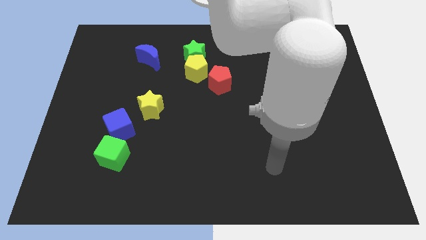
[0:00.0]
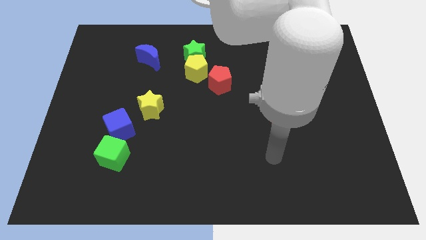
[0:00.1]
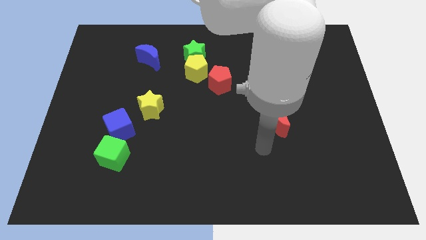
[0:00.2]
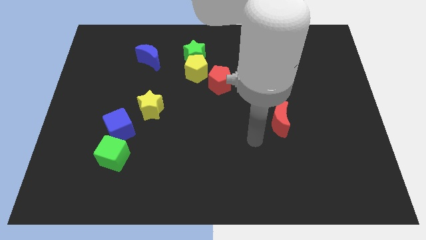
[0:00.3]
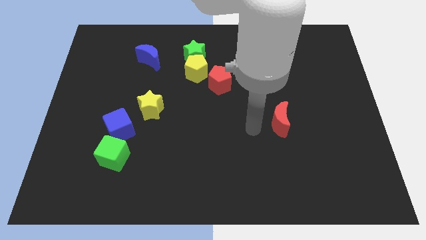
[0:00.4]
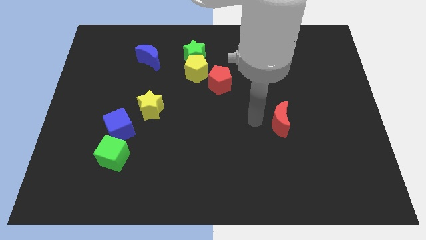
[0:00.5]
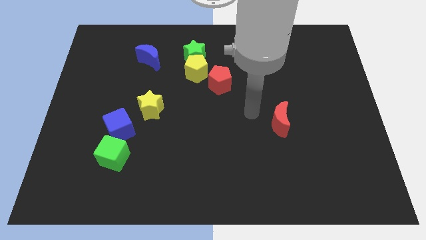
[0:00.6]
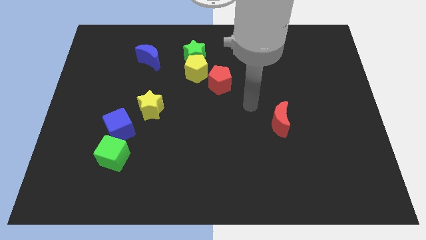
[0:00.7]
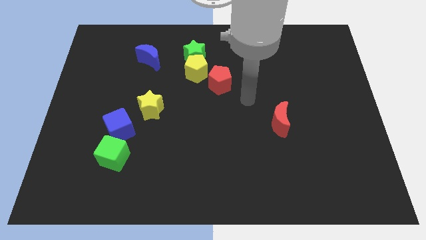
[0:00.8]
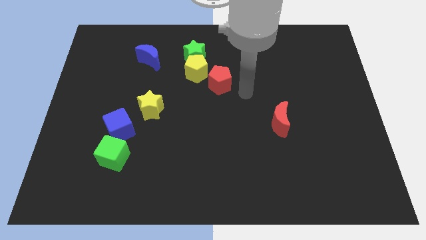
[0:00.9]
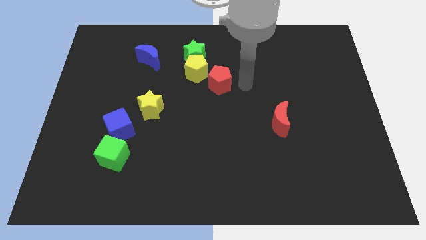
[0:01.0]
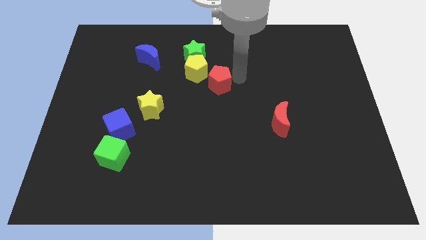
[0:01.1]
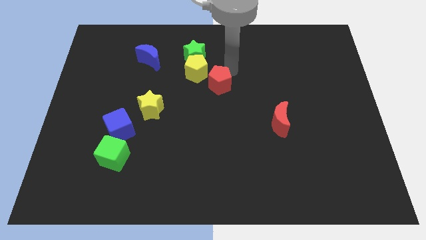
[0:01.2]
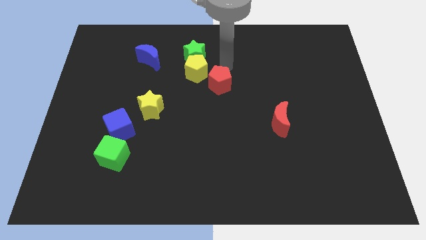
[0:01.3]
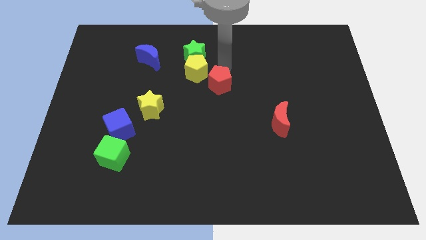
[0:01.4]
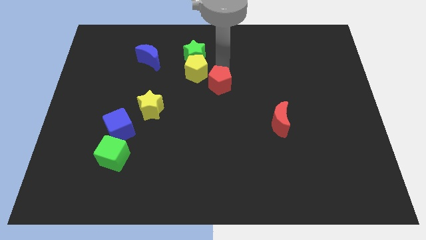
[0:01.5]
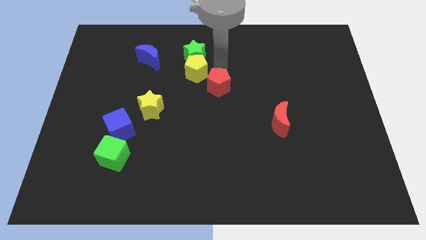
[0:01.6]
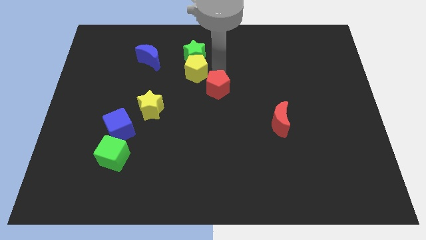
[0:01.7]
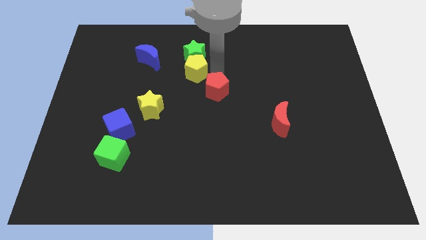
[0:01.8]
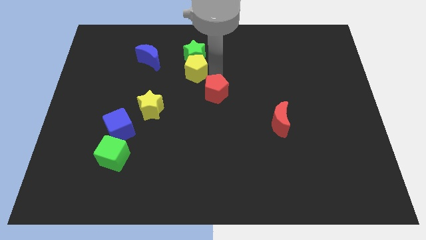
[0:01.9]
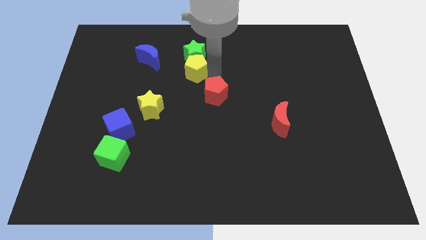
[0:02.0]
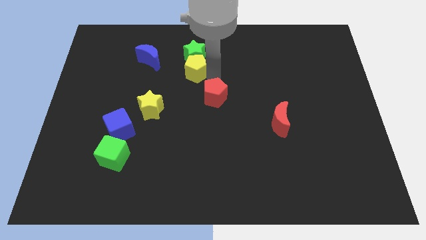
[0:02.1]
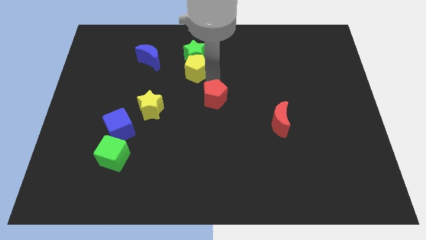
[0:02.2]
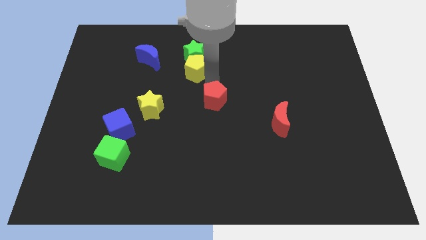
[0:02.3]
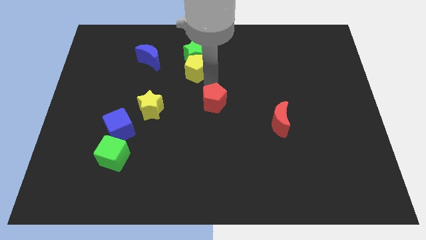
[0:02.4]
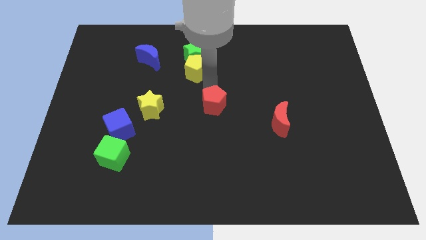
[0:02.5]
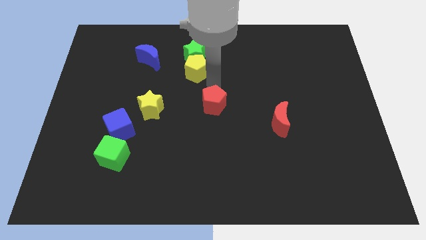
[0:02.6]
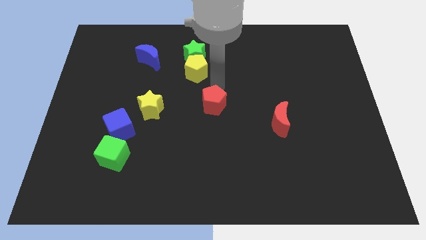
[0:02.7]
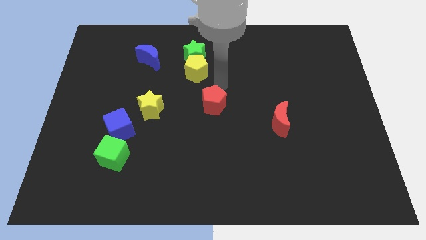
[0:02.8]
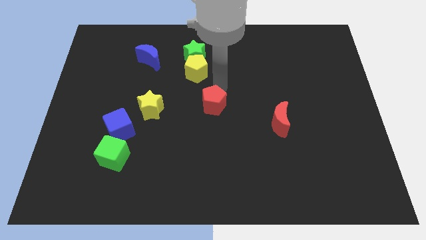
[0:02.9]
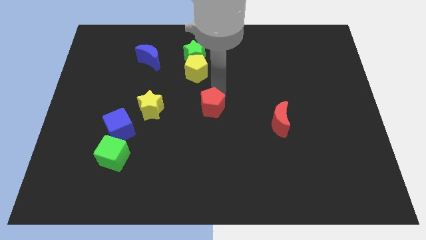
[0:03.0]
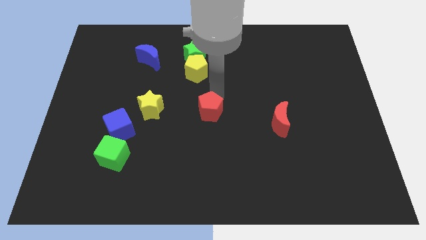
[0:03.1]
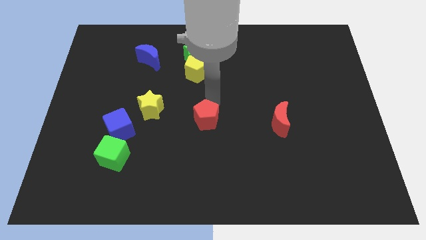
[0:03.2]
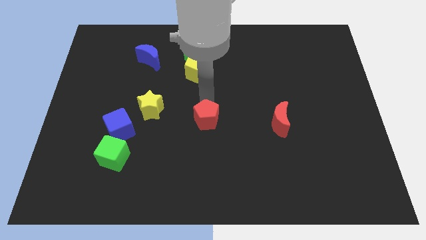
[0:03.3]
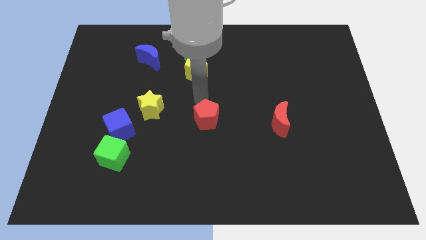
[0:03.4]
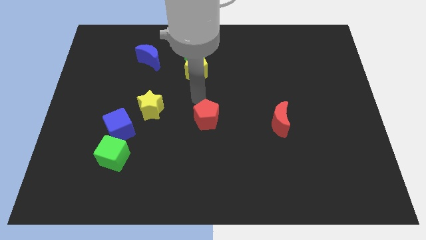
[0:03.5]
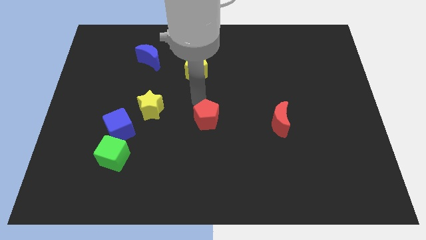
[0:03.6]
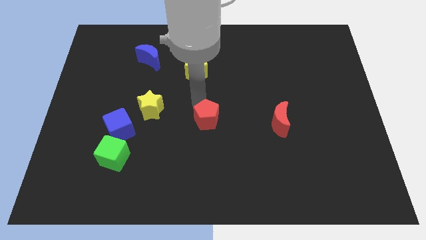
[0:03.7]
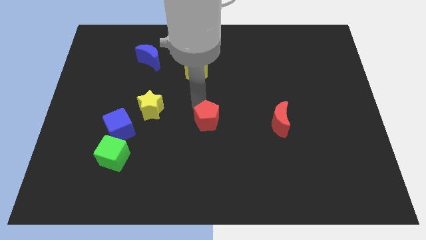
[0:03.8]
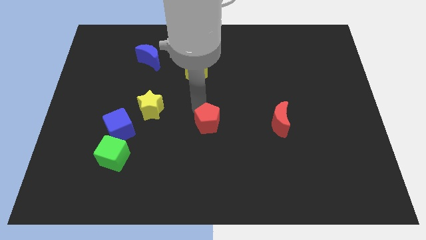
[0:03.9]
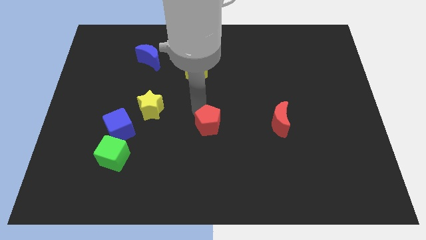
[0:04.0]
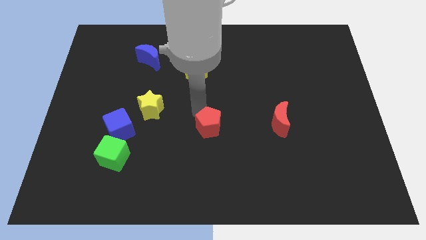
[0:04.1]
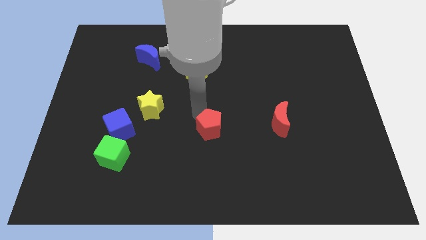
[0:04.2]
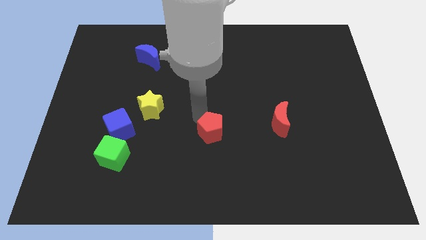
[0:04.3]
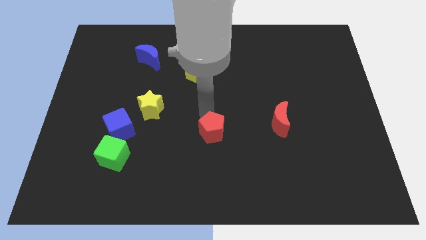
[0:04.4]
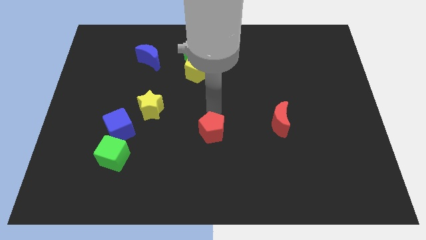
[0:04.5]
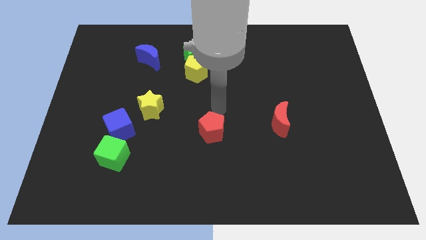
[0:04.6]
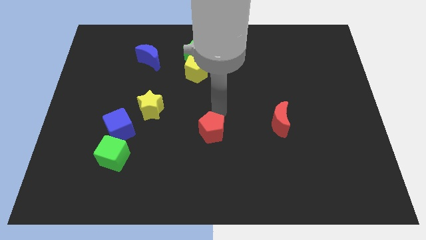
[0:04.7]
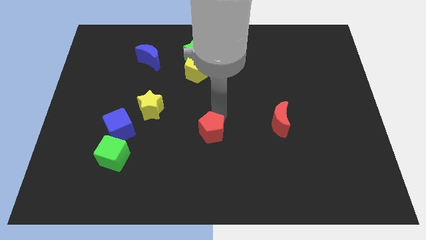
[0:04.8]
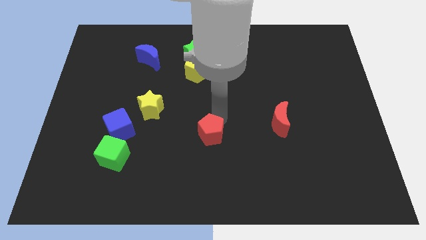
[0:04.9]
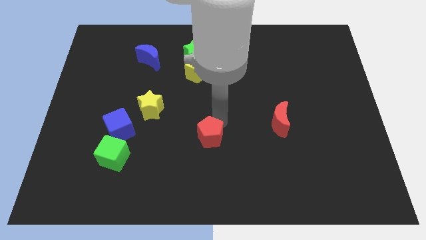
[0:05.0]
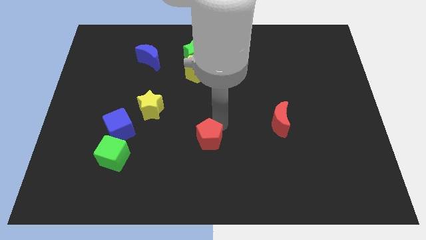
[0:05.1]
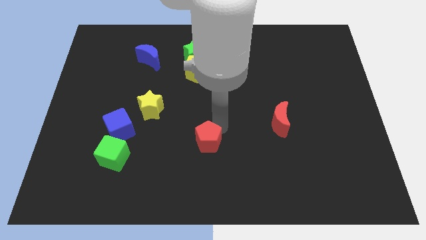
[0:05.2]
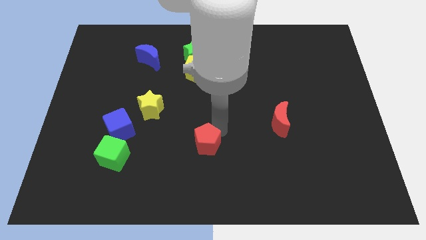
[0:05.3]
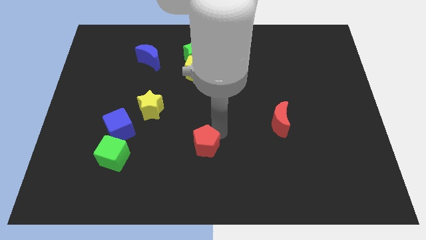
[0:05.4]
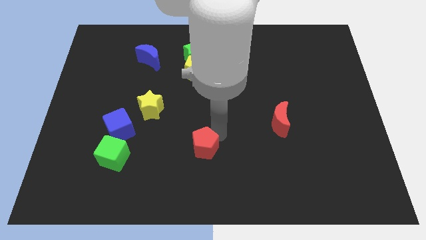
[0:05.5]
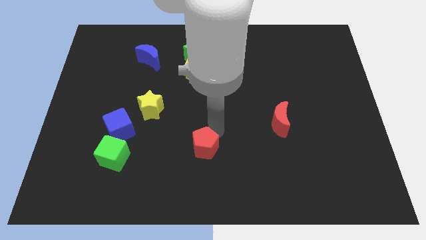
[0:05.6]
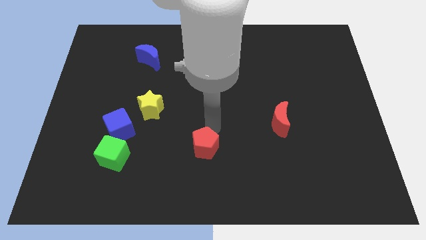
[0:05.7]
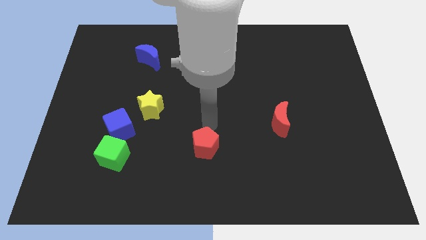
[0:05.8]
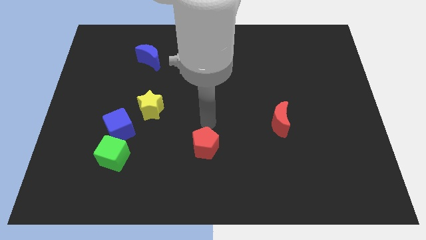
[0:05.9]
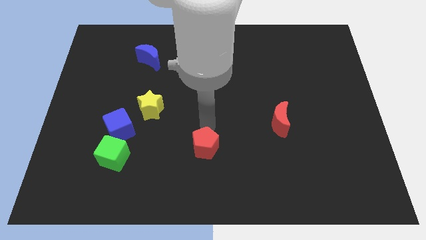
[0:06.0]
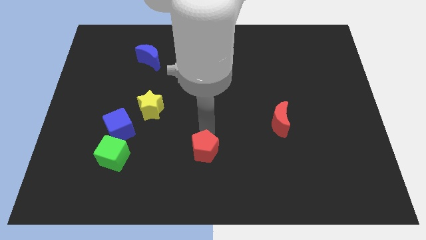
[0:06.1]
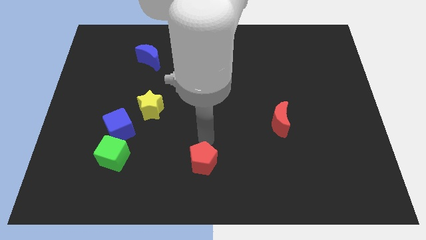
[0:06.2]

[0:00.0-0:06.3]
push the red pentagon to the bottom
